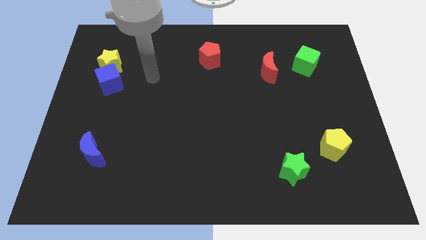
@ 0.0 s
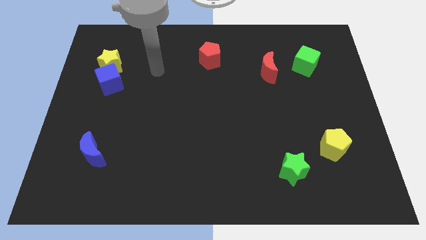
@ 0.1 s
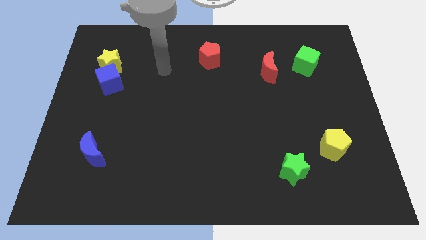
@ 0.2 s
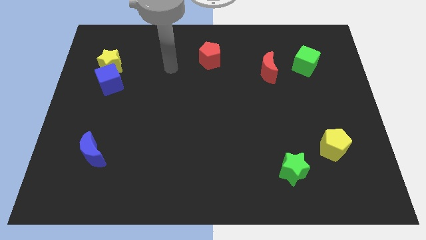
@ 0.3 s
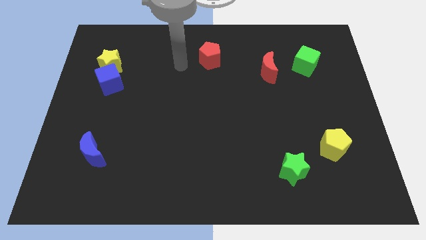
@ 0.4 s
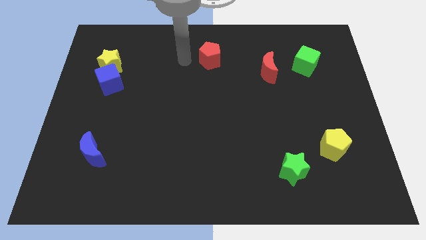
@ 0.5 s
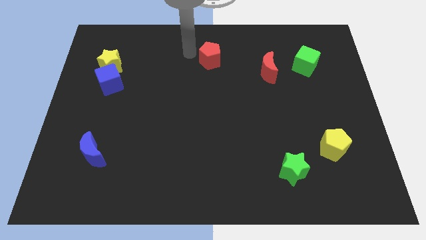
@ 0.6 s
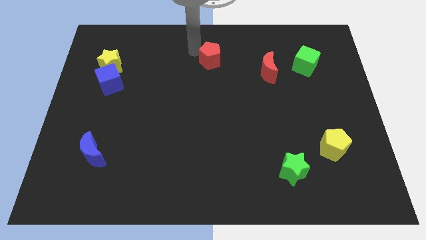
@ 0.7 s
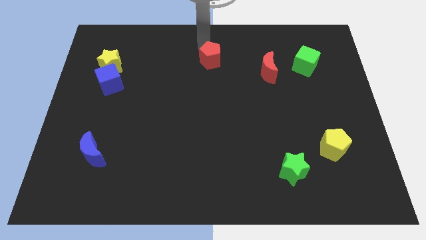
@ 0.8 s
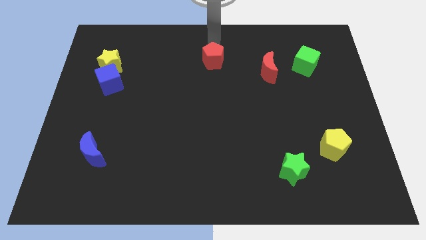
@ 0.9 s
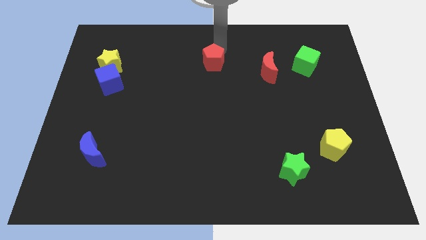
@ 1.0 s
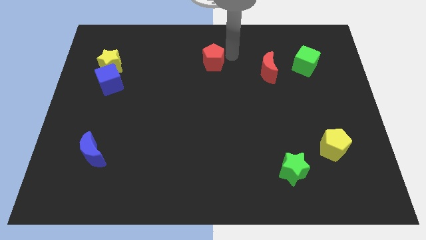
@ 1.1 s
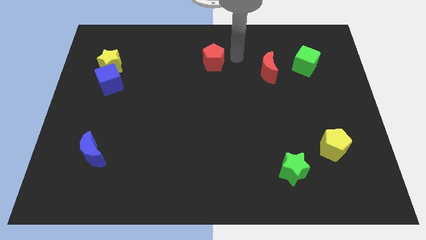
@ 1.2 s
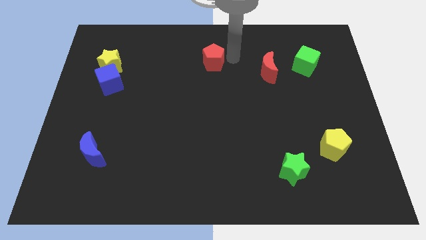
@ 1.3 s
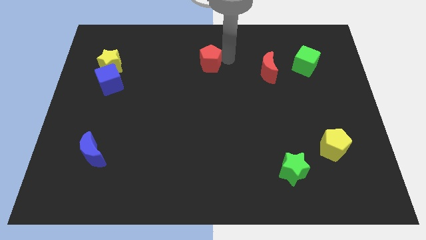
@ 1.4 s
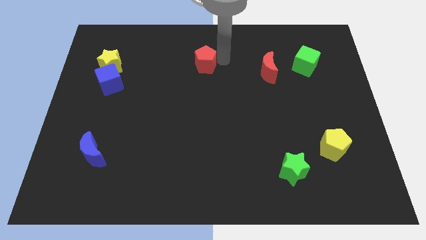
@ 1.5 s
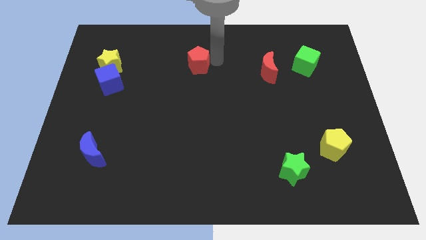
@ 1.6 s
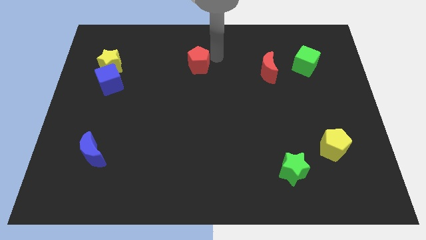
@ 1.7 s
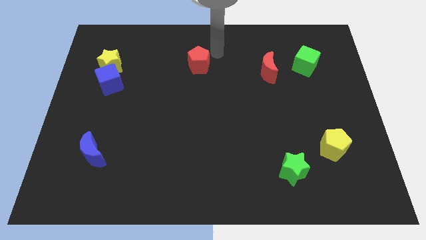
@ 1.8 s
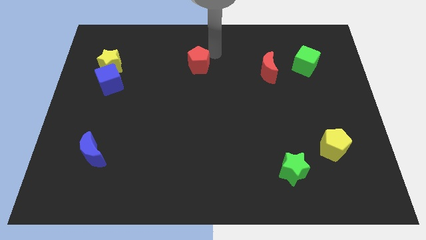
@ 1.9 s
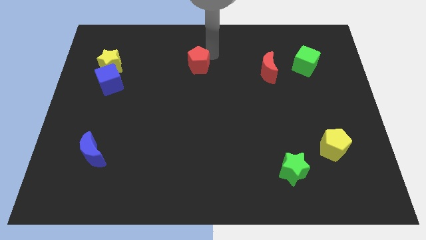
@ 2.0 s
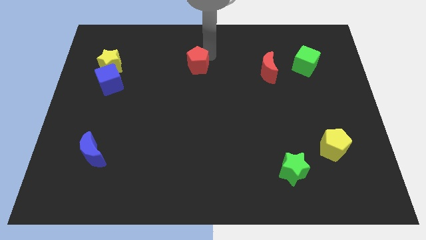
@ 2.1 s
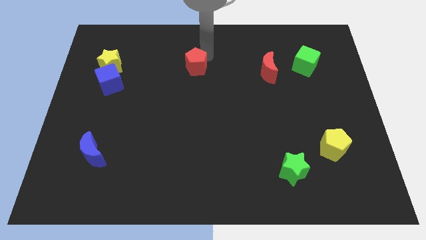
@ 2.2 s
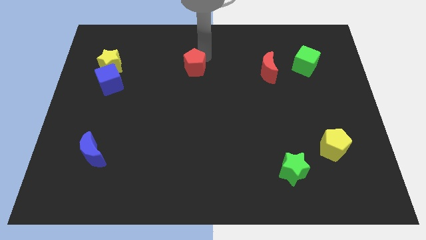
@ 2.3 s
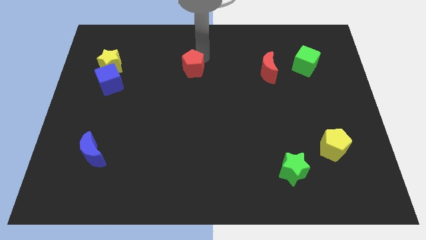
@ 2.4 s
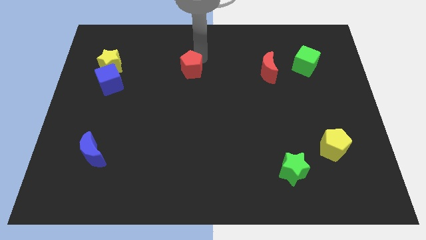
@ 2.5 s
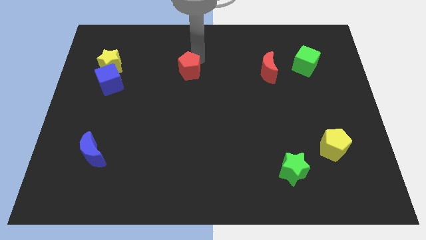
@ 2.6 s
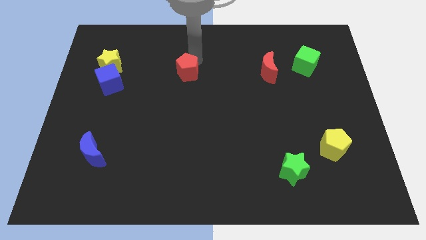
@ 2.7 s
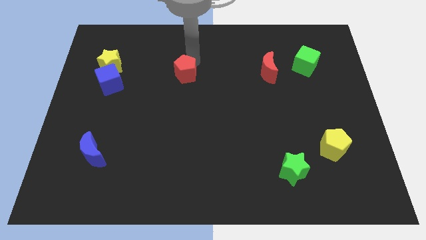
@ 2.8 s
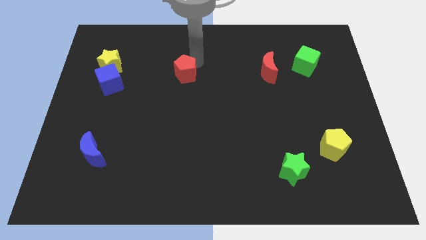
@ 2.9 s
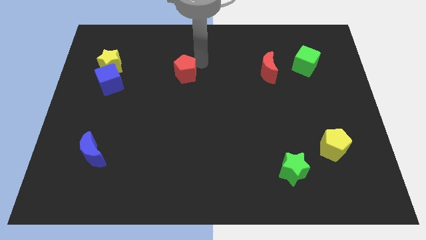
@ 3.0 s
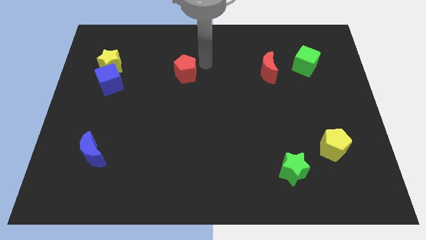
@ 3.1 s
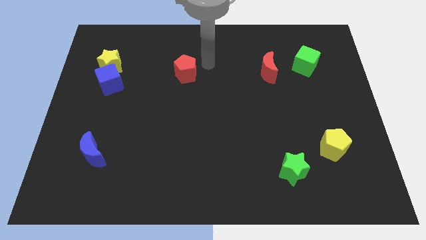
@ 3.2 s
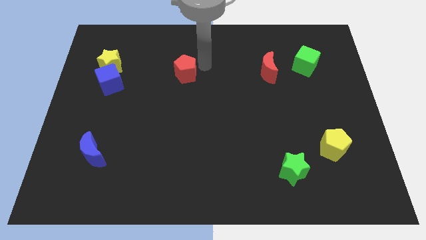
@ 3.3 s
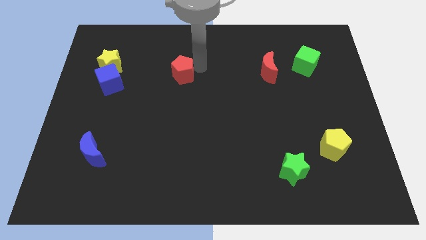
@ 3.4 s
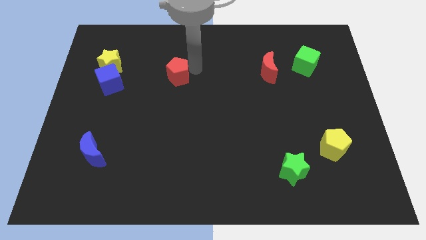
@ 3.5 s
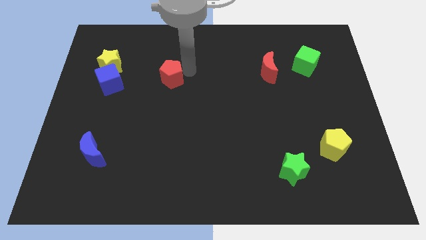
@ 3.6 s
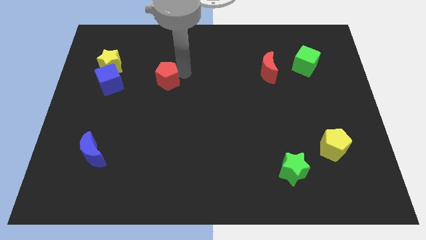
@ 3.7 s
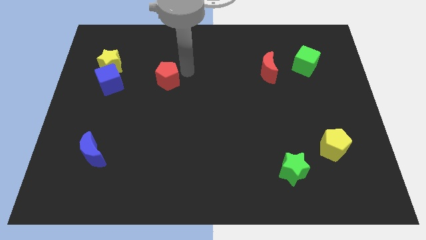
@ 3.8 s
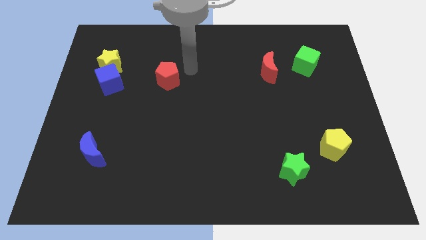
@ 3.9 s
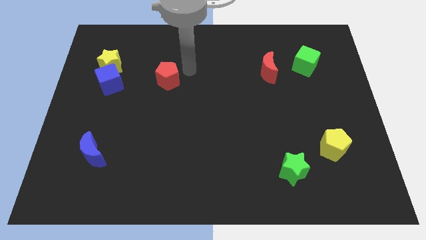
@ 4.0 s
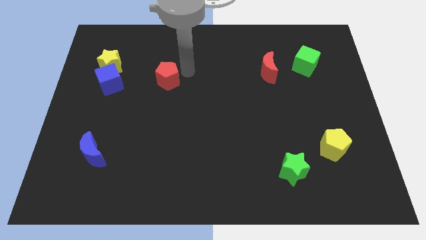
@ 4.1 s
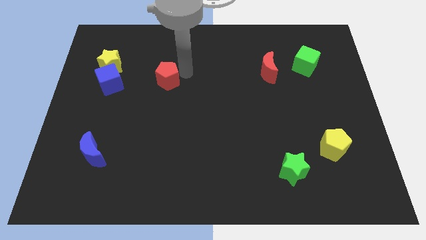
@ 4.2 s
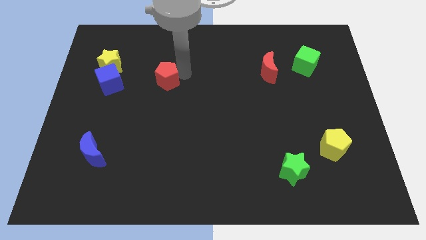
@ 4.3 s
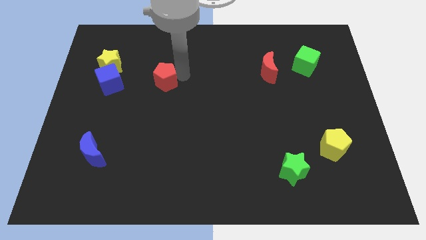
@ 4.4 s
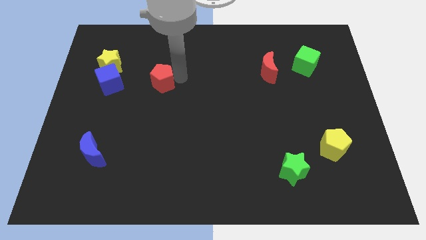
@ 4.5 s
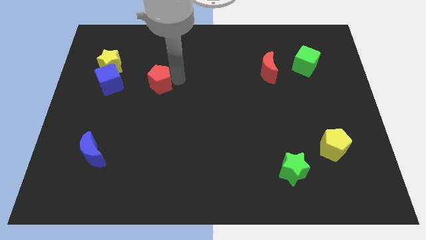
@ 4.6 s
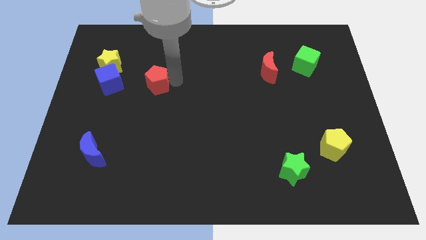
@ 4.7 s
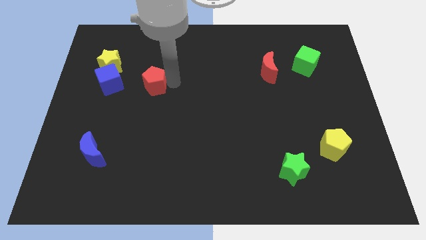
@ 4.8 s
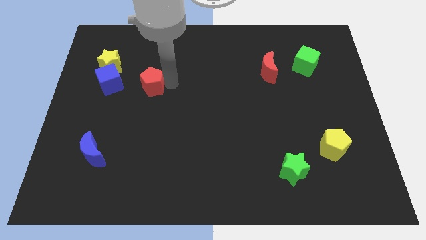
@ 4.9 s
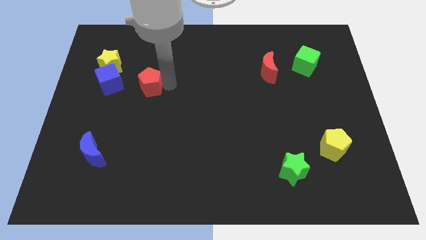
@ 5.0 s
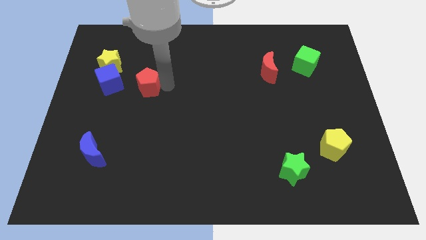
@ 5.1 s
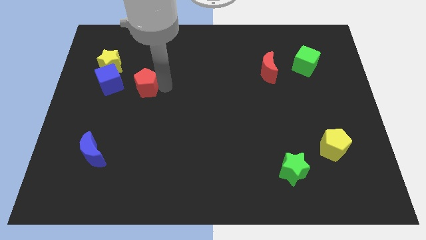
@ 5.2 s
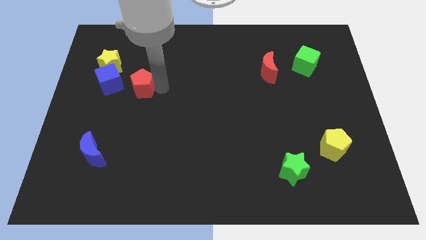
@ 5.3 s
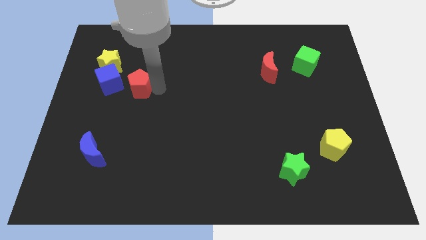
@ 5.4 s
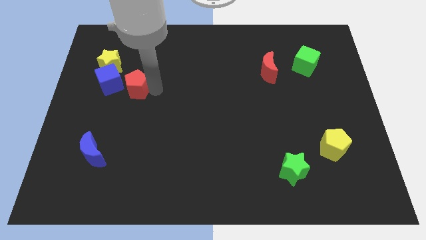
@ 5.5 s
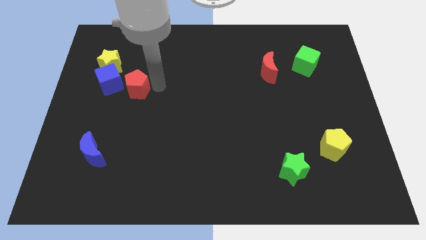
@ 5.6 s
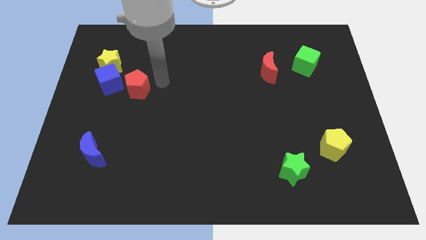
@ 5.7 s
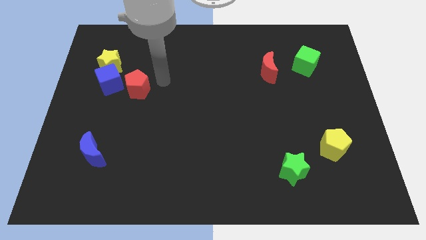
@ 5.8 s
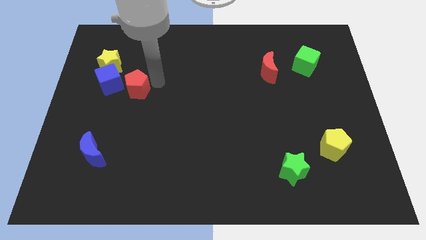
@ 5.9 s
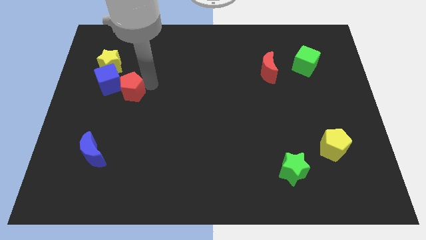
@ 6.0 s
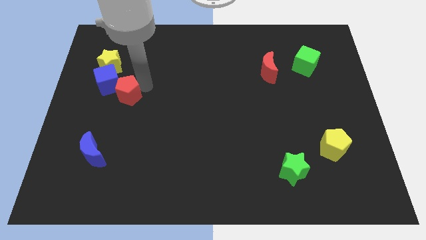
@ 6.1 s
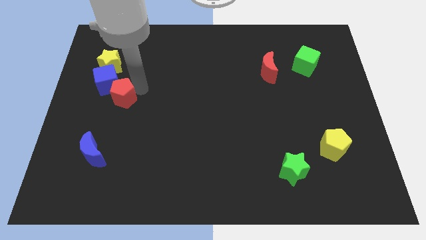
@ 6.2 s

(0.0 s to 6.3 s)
slide the red pentagon below the yellow star
